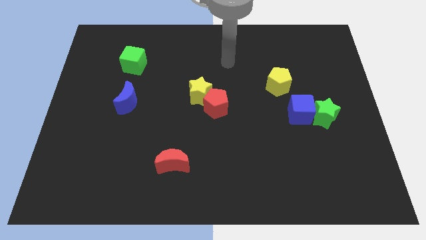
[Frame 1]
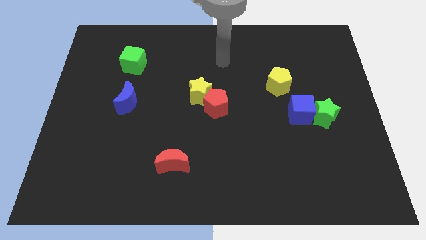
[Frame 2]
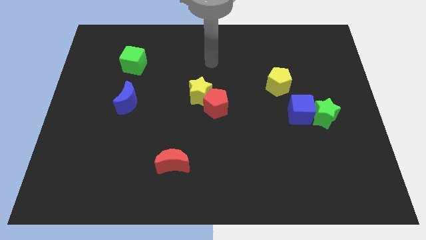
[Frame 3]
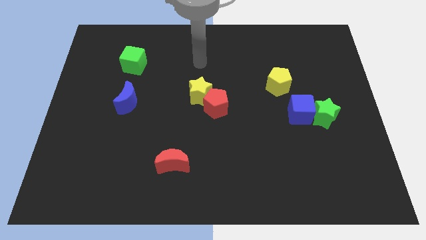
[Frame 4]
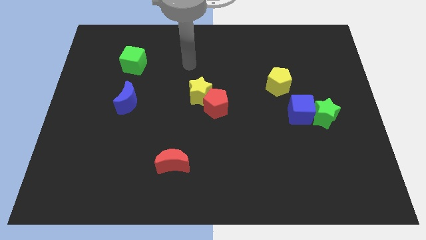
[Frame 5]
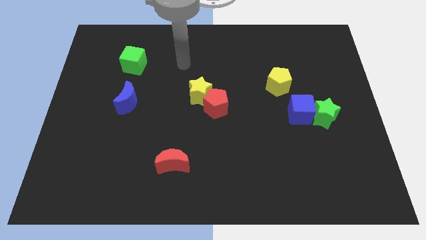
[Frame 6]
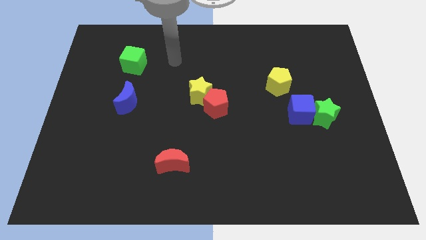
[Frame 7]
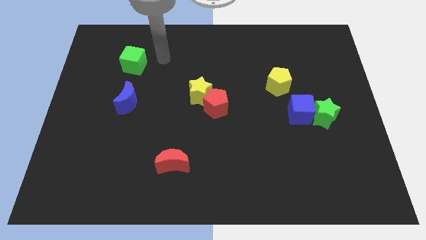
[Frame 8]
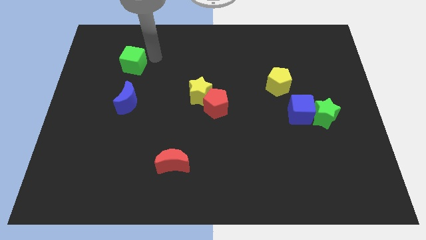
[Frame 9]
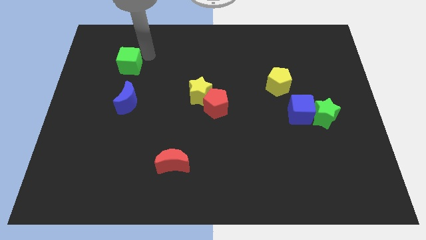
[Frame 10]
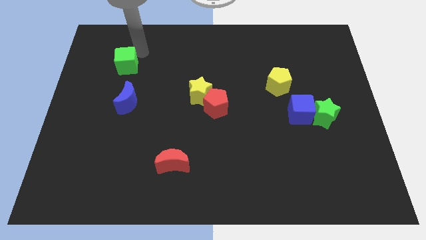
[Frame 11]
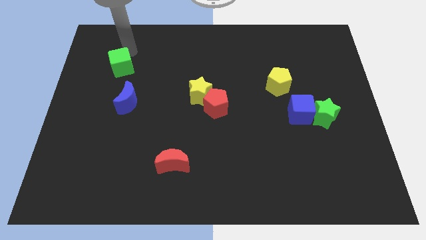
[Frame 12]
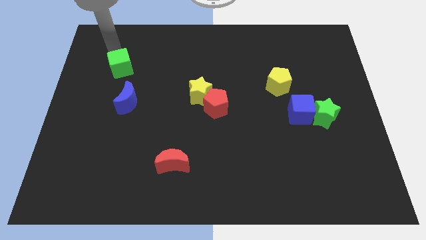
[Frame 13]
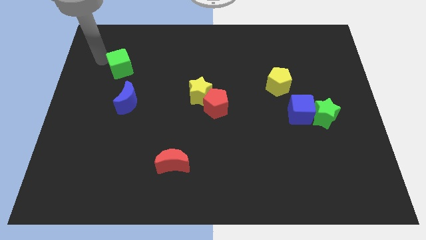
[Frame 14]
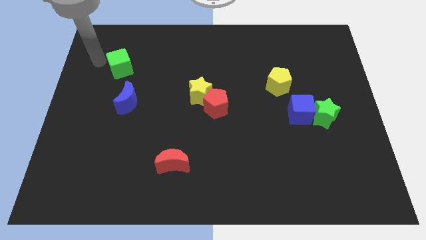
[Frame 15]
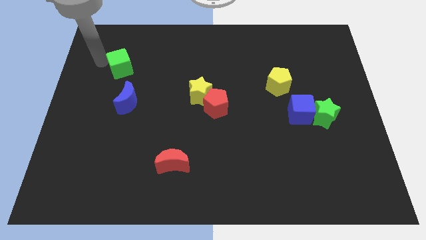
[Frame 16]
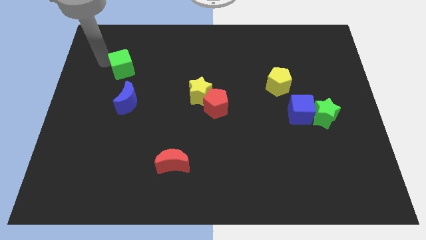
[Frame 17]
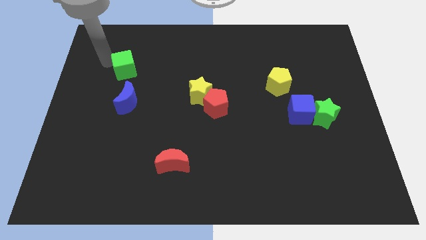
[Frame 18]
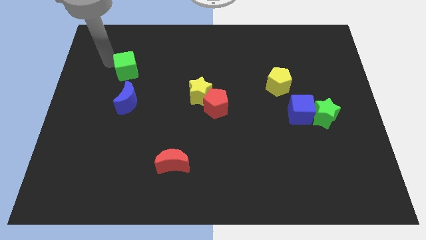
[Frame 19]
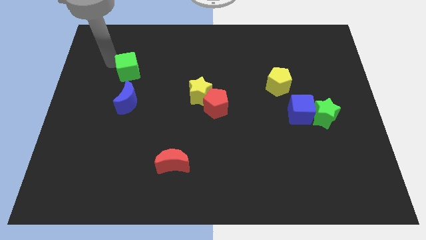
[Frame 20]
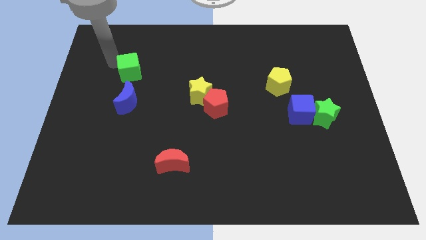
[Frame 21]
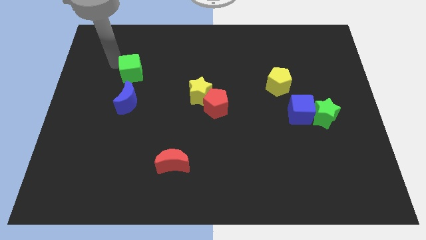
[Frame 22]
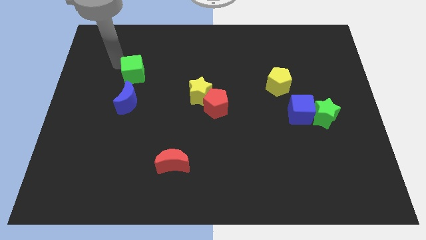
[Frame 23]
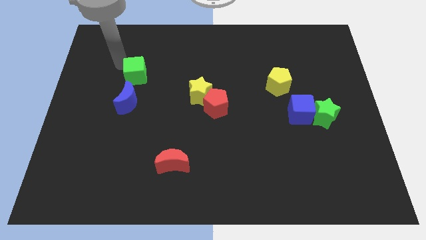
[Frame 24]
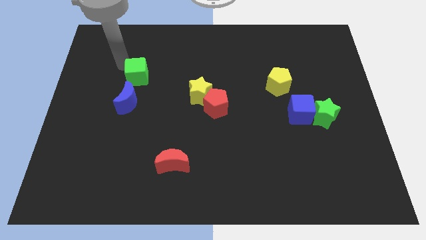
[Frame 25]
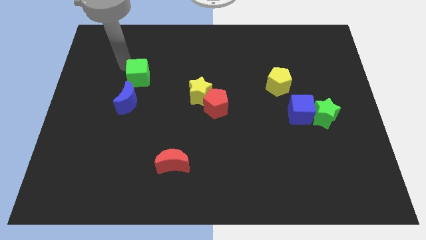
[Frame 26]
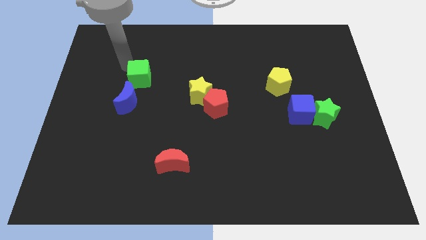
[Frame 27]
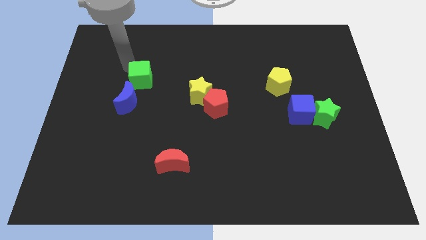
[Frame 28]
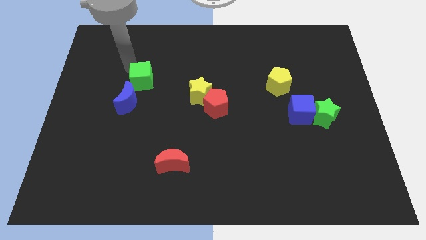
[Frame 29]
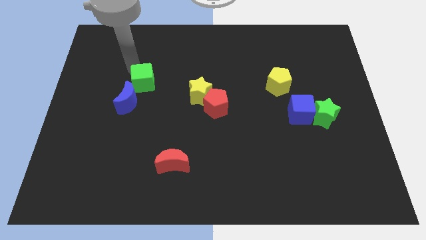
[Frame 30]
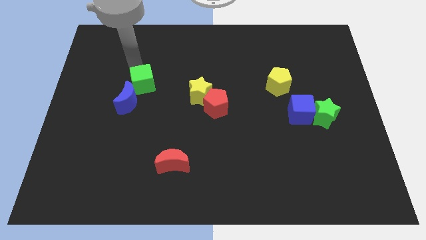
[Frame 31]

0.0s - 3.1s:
push the green cube slightly down and right

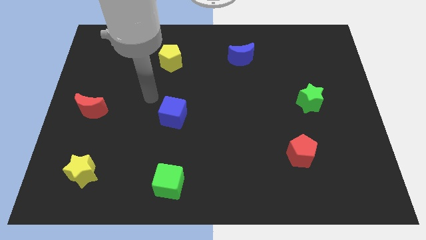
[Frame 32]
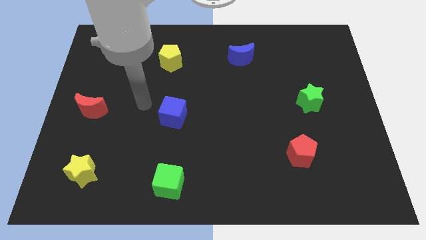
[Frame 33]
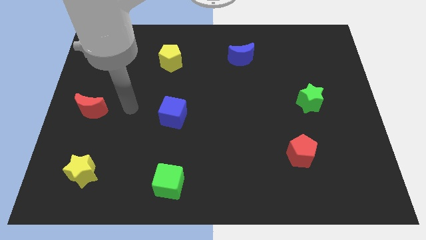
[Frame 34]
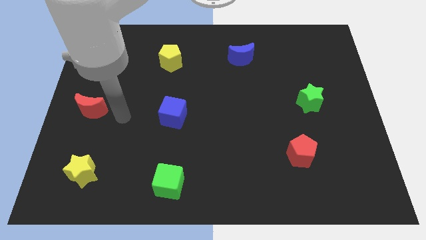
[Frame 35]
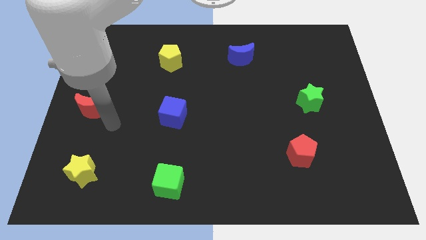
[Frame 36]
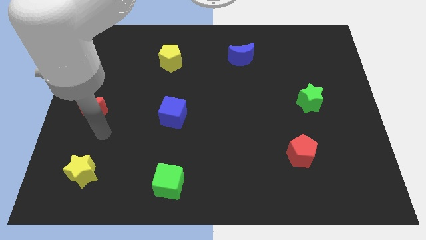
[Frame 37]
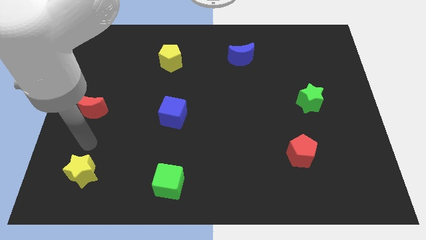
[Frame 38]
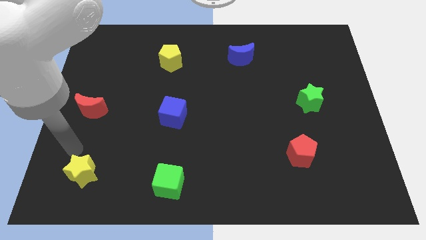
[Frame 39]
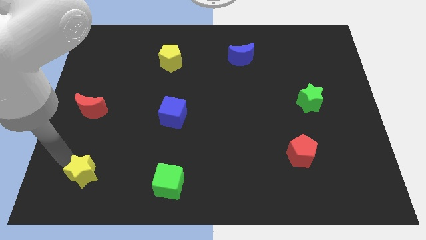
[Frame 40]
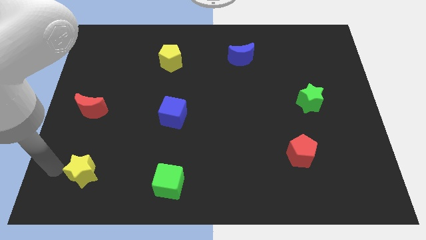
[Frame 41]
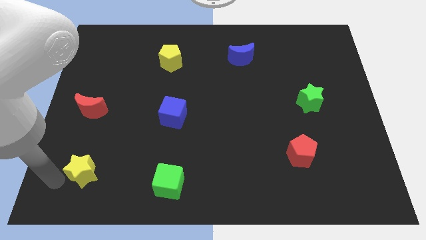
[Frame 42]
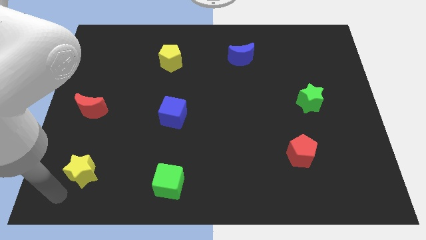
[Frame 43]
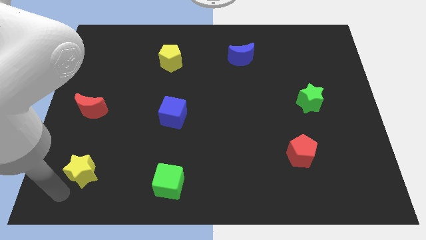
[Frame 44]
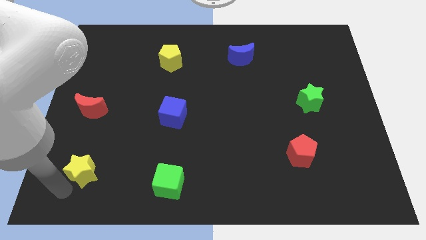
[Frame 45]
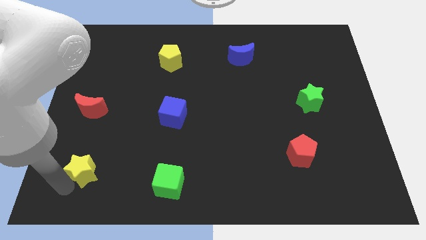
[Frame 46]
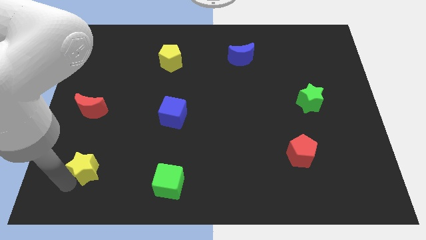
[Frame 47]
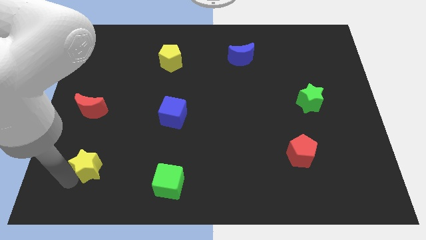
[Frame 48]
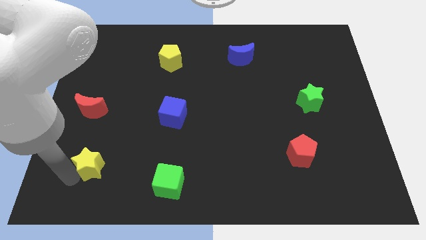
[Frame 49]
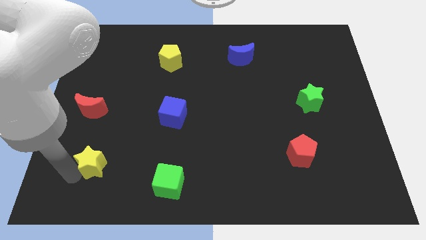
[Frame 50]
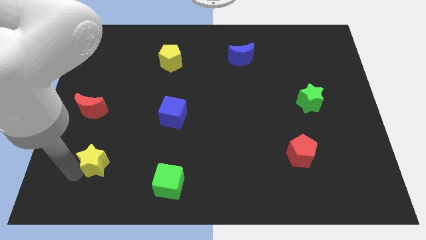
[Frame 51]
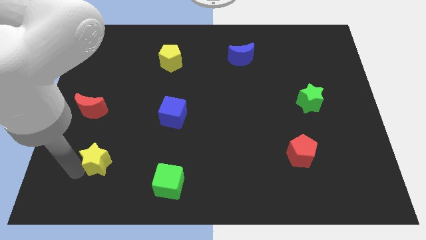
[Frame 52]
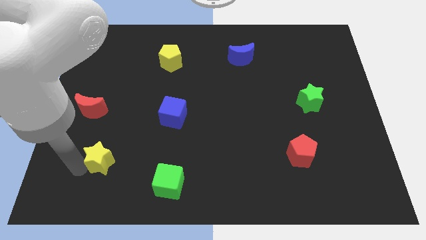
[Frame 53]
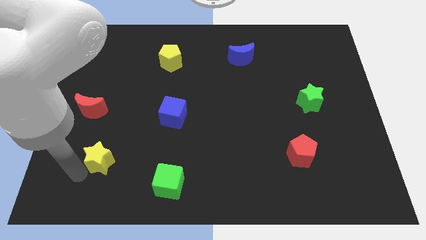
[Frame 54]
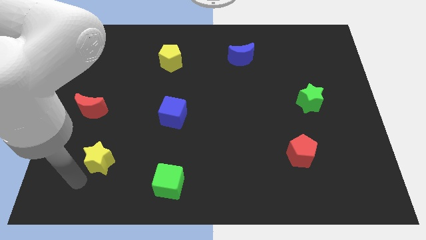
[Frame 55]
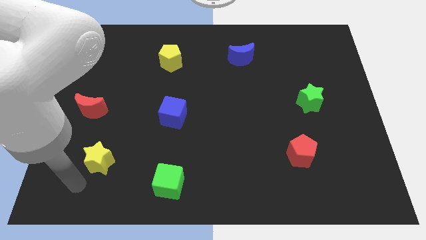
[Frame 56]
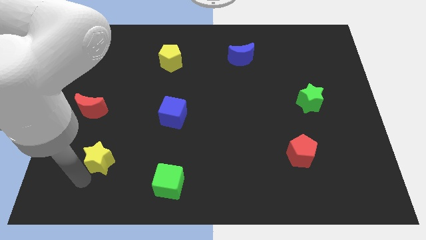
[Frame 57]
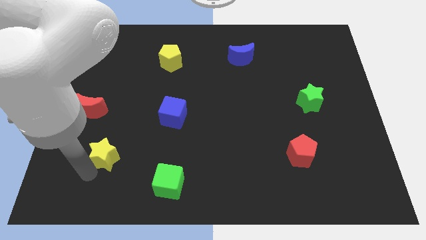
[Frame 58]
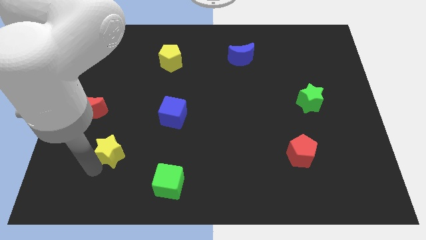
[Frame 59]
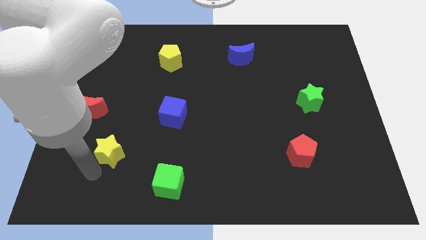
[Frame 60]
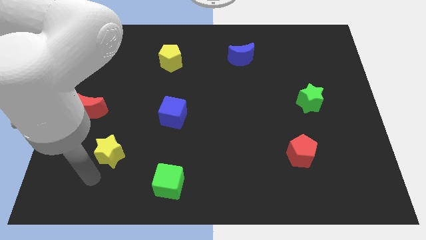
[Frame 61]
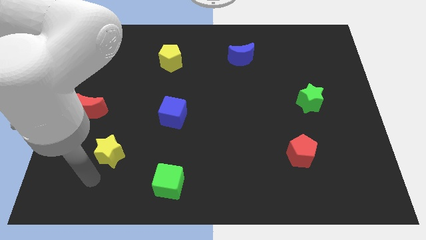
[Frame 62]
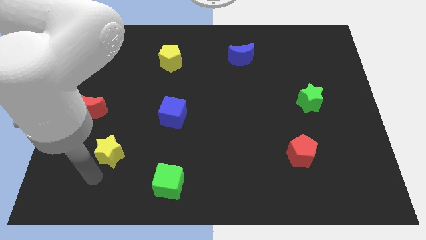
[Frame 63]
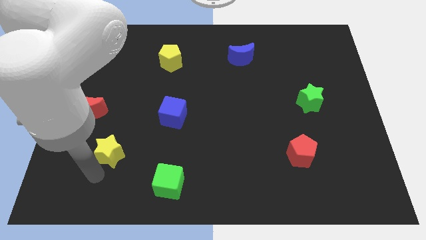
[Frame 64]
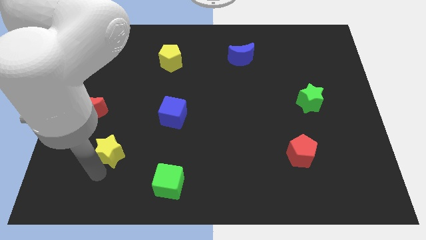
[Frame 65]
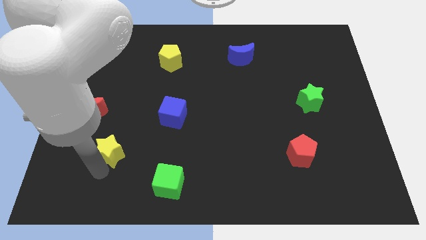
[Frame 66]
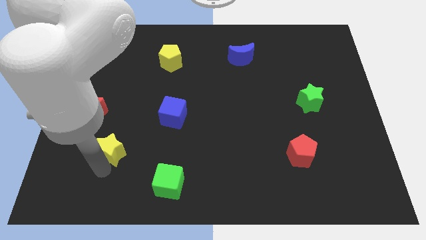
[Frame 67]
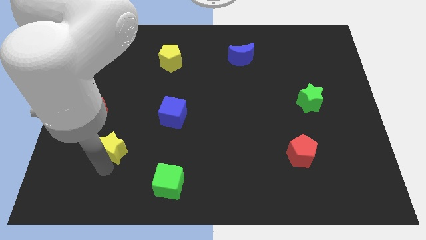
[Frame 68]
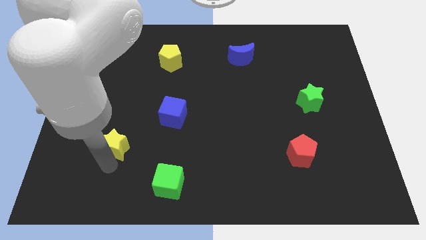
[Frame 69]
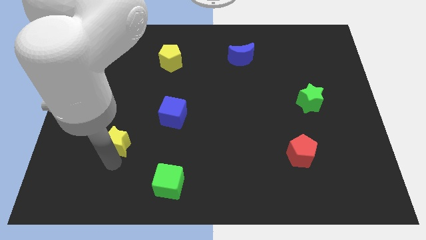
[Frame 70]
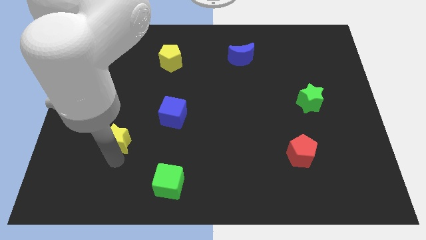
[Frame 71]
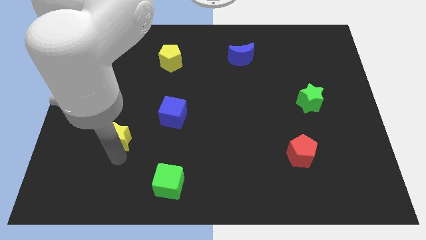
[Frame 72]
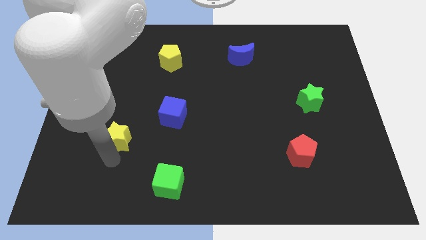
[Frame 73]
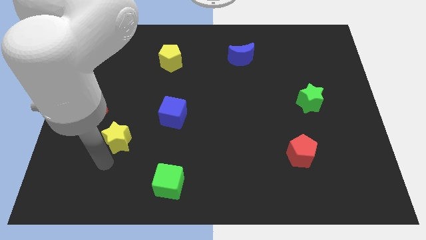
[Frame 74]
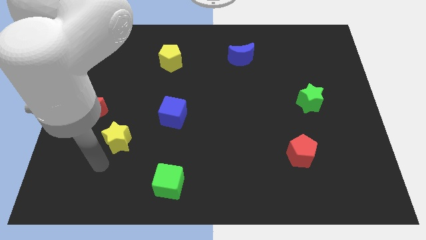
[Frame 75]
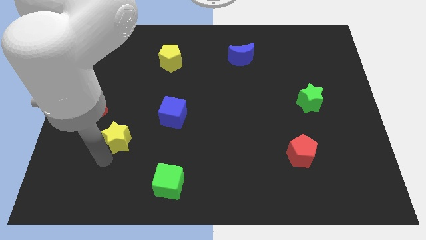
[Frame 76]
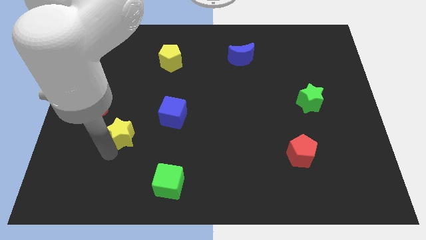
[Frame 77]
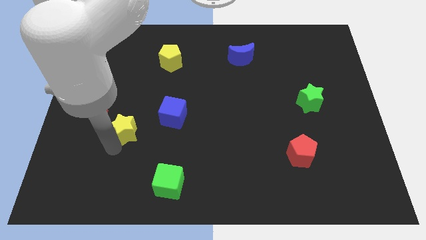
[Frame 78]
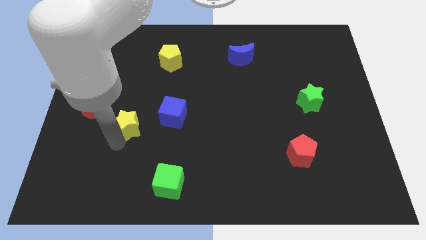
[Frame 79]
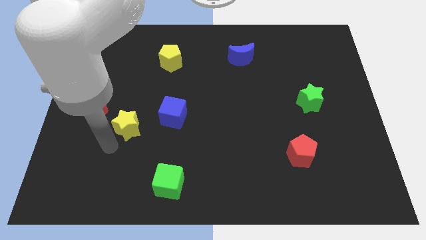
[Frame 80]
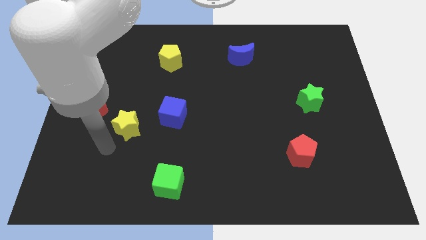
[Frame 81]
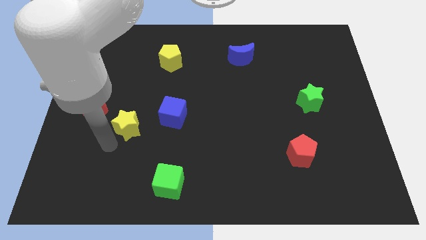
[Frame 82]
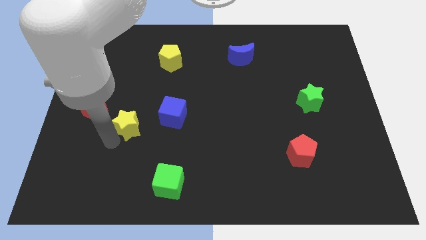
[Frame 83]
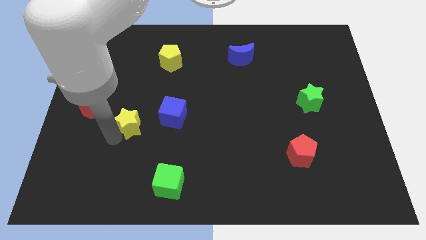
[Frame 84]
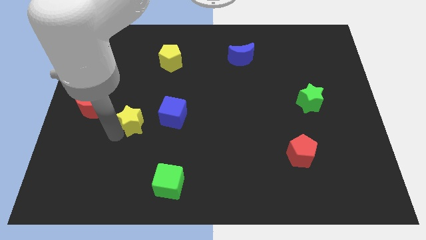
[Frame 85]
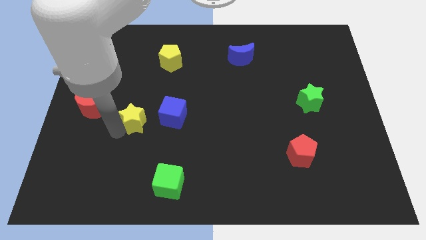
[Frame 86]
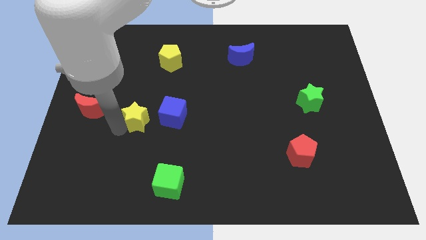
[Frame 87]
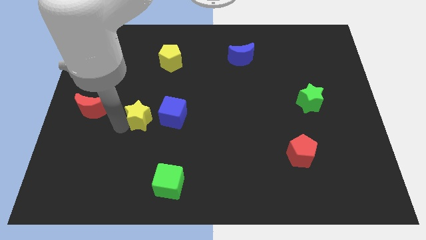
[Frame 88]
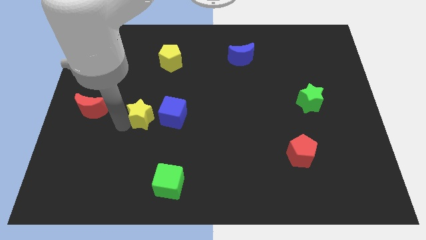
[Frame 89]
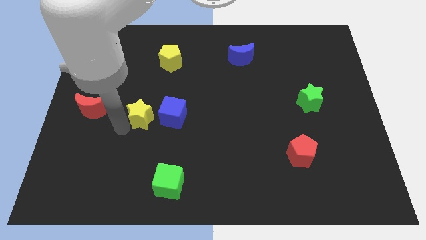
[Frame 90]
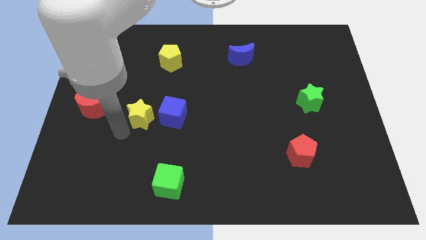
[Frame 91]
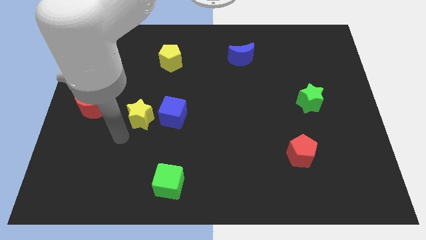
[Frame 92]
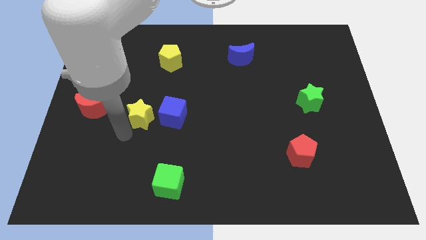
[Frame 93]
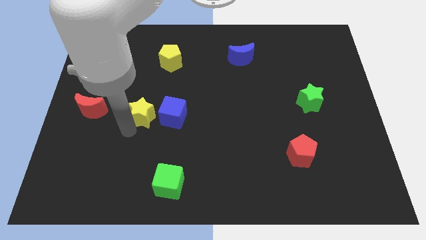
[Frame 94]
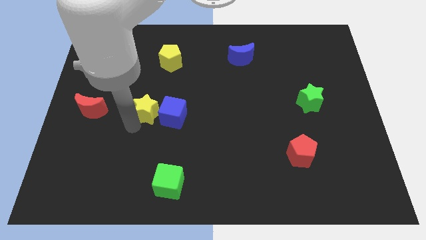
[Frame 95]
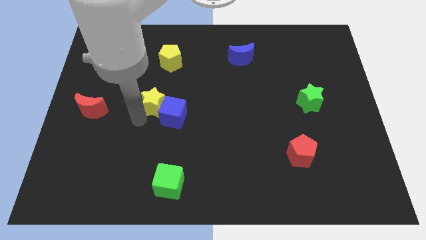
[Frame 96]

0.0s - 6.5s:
push the yellow star diagonally up and right
